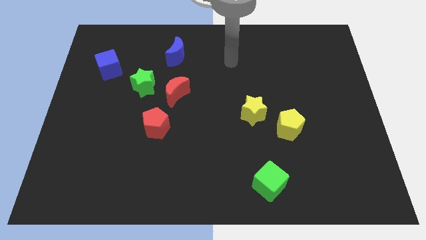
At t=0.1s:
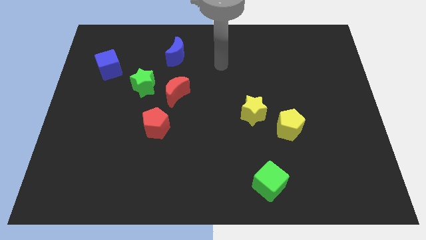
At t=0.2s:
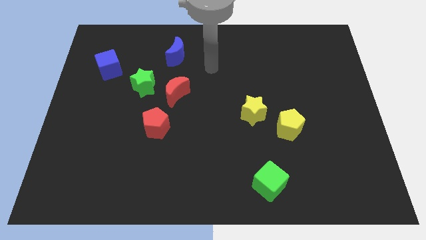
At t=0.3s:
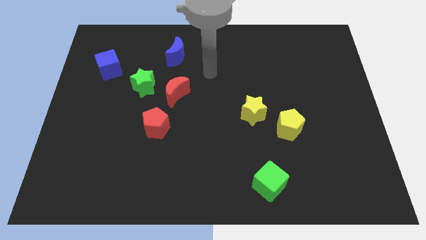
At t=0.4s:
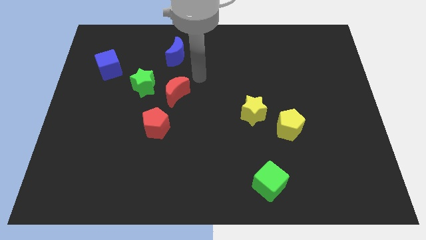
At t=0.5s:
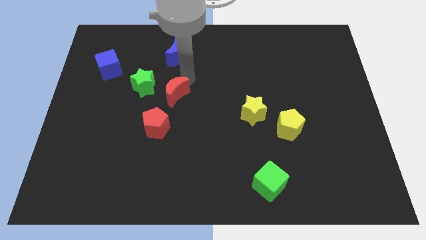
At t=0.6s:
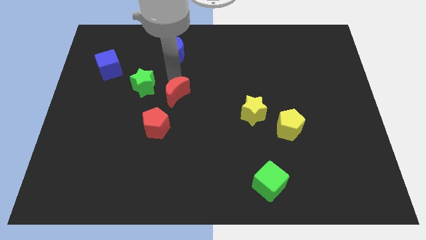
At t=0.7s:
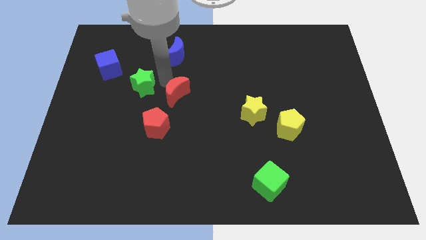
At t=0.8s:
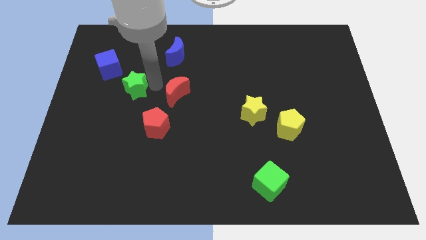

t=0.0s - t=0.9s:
pull the red moon apart from the green star

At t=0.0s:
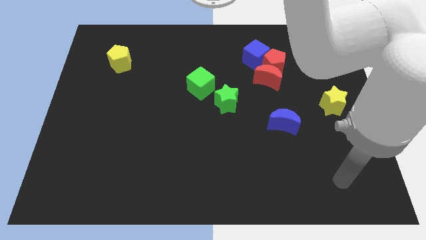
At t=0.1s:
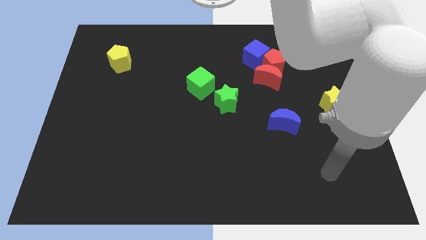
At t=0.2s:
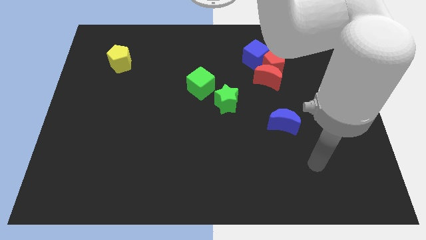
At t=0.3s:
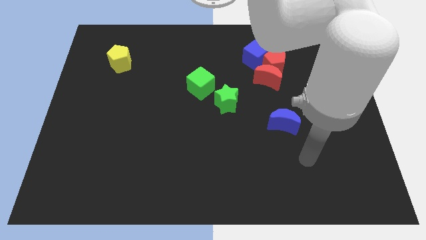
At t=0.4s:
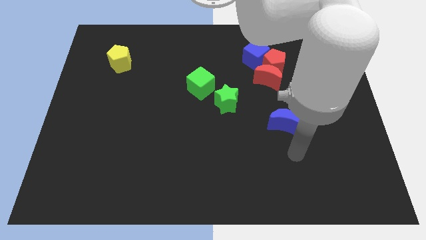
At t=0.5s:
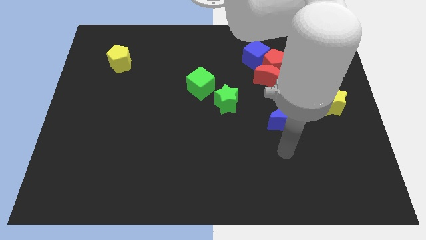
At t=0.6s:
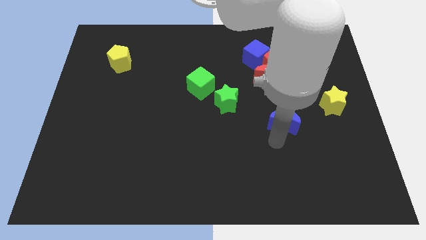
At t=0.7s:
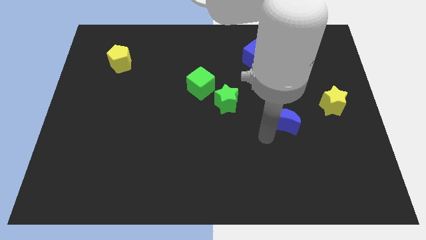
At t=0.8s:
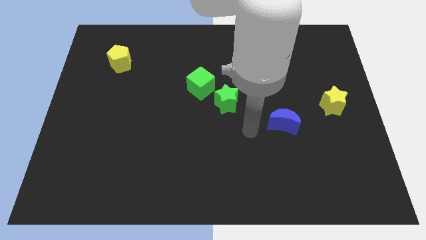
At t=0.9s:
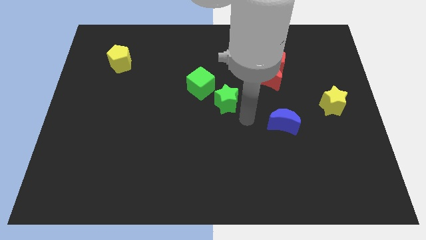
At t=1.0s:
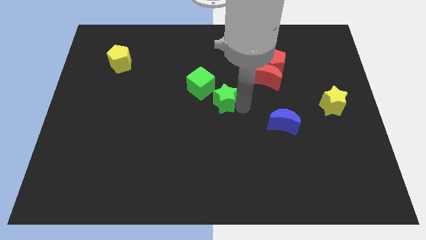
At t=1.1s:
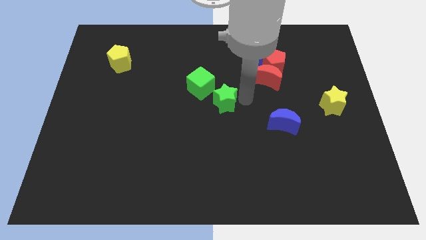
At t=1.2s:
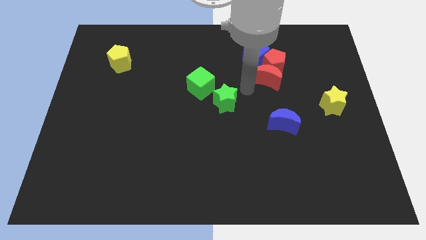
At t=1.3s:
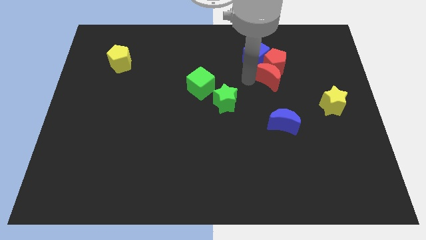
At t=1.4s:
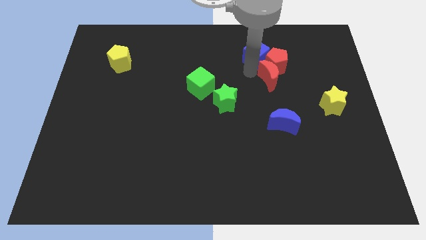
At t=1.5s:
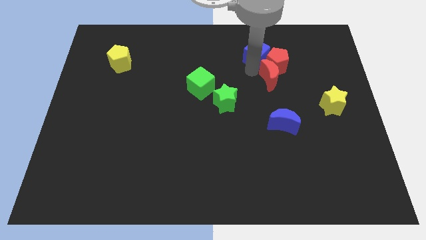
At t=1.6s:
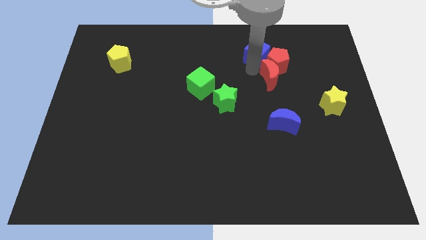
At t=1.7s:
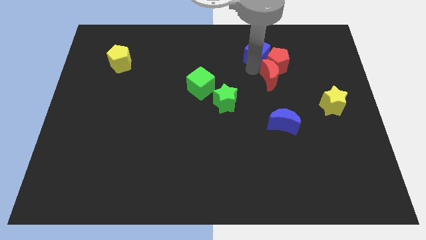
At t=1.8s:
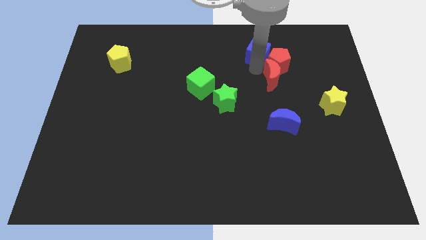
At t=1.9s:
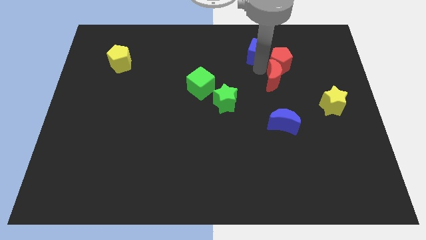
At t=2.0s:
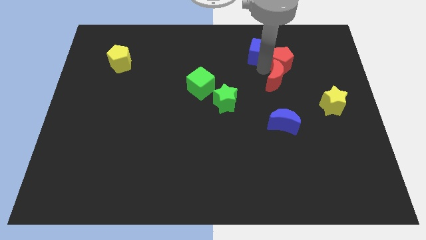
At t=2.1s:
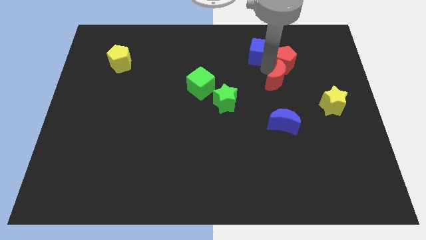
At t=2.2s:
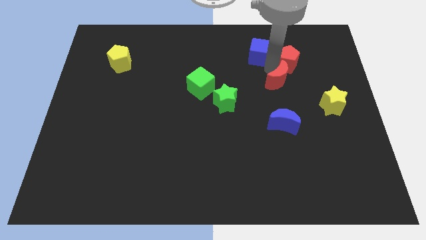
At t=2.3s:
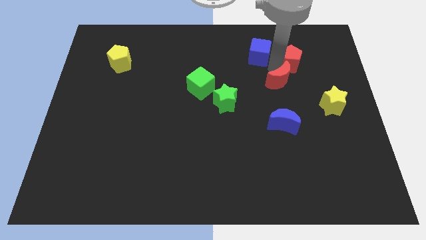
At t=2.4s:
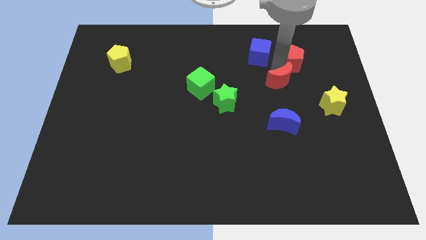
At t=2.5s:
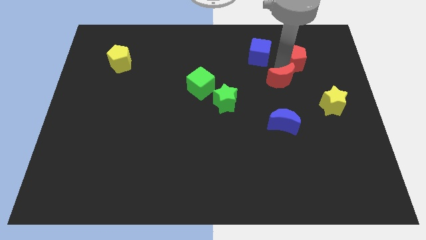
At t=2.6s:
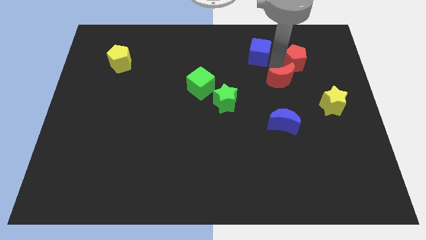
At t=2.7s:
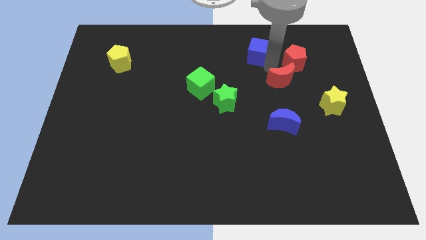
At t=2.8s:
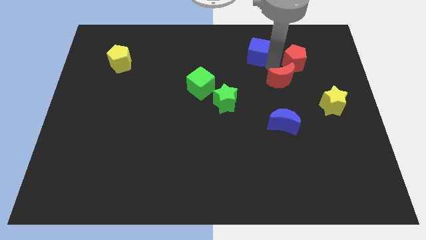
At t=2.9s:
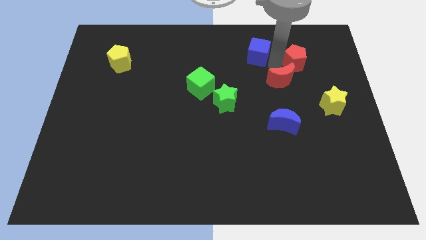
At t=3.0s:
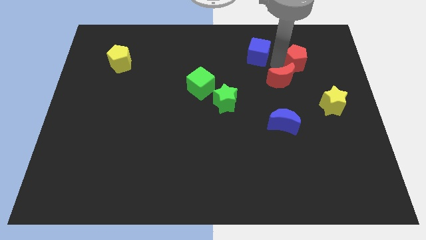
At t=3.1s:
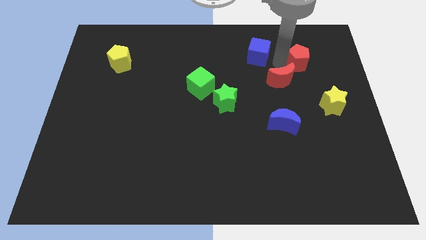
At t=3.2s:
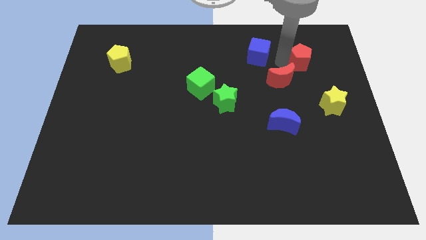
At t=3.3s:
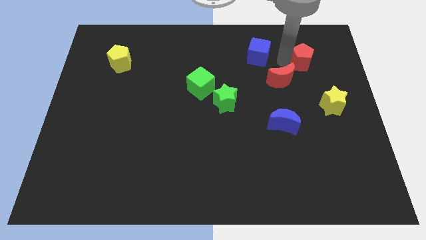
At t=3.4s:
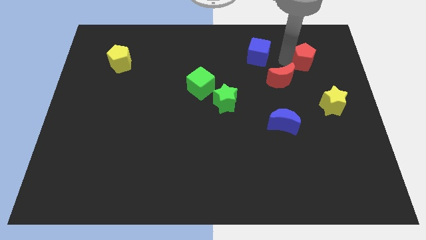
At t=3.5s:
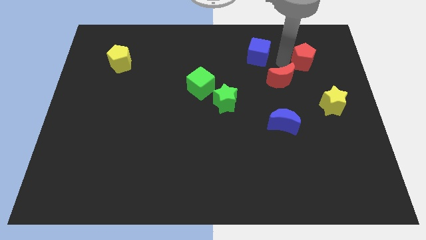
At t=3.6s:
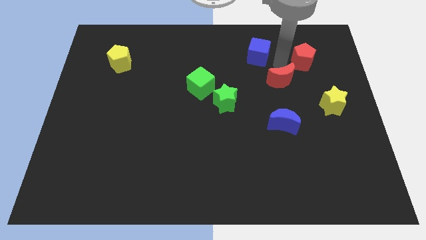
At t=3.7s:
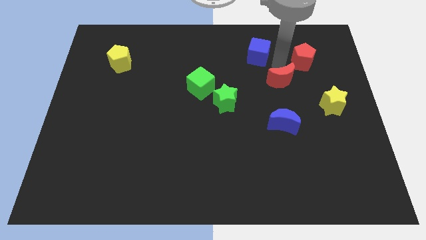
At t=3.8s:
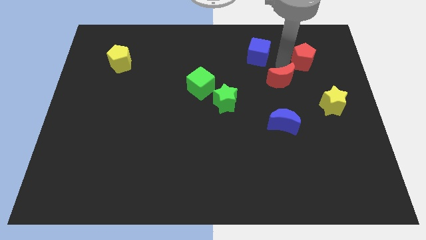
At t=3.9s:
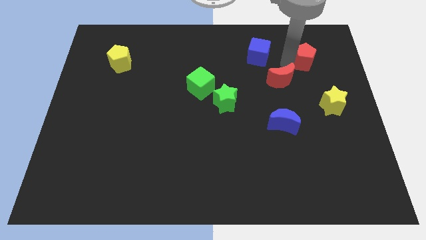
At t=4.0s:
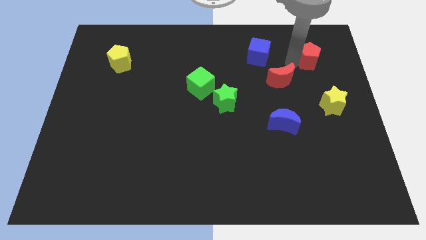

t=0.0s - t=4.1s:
separate the red pentagon from the red moon and blue cube

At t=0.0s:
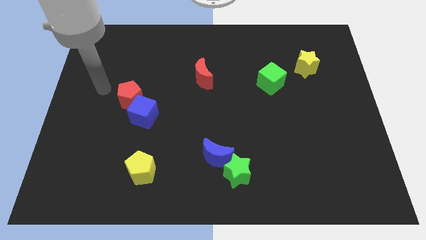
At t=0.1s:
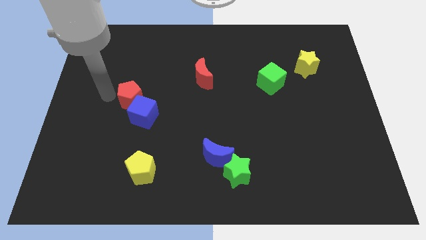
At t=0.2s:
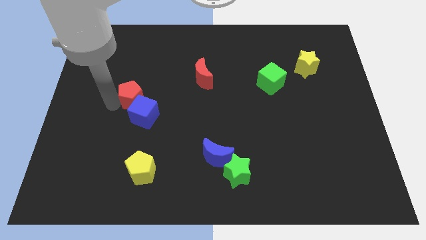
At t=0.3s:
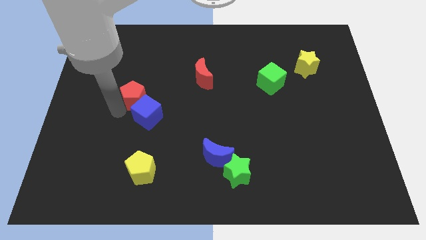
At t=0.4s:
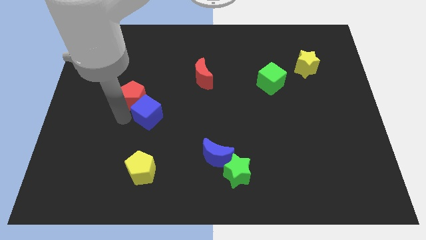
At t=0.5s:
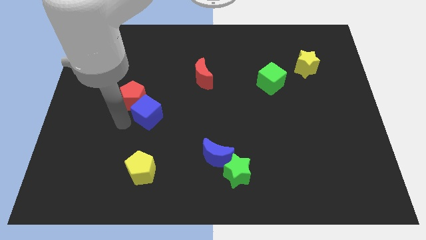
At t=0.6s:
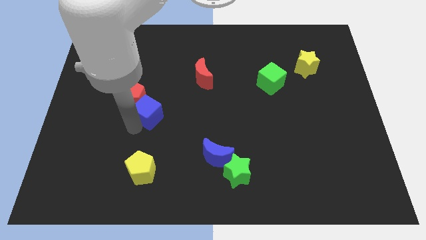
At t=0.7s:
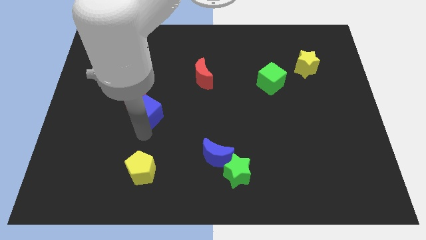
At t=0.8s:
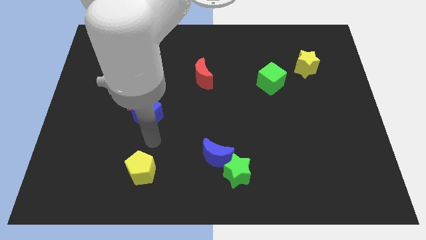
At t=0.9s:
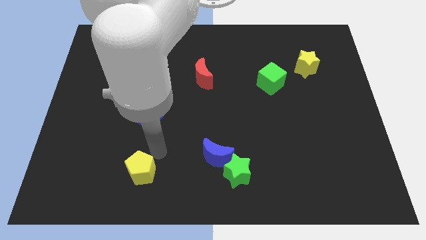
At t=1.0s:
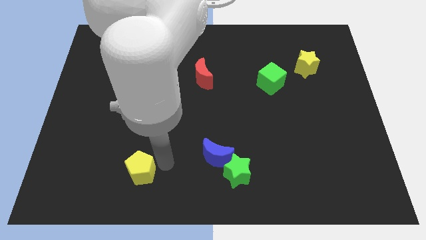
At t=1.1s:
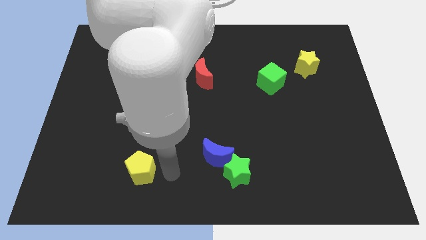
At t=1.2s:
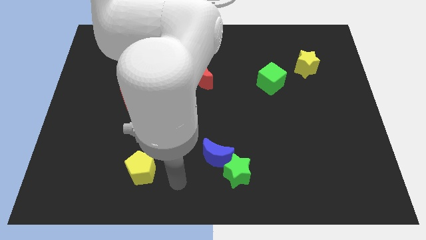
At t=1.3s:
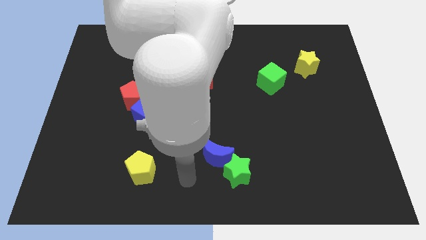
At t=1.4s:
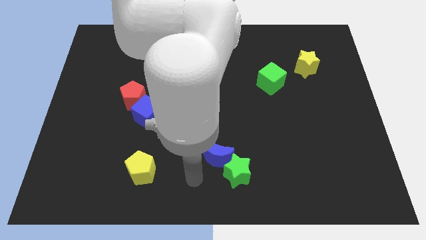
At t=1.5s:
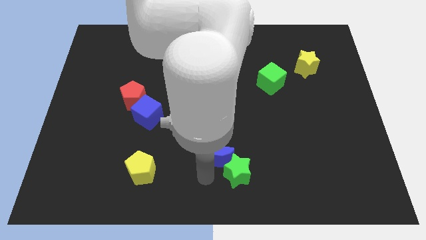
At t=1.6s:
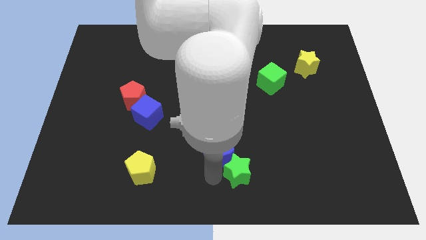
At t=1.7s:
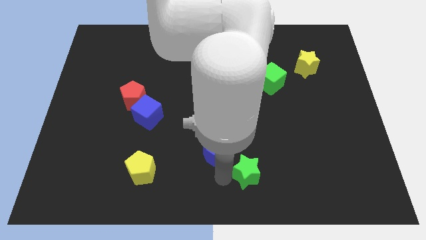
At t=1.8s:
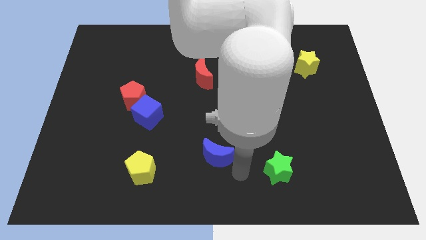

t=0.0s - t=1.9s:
separate the blue moon from the green star

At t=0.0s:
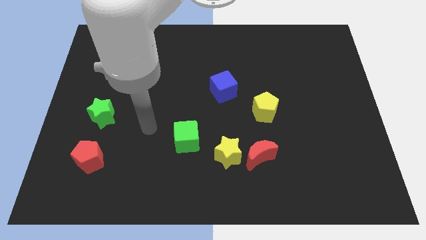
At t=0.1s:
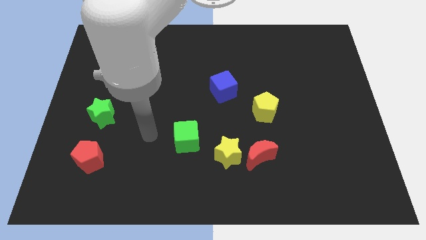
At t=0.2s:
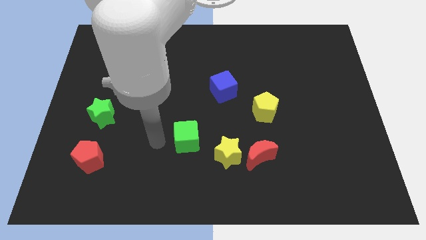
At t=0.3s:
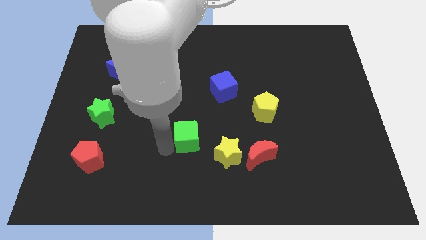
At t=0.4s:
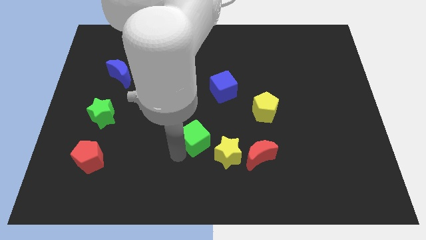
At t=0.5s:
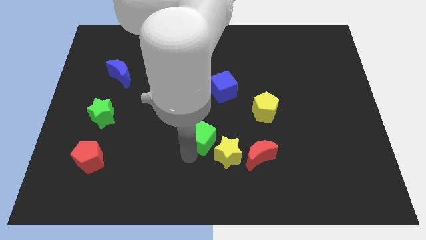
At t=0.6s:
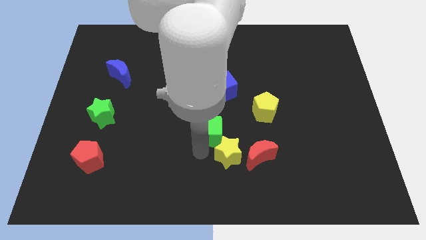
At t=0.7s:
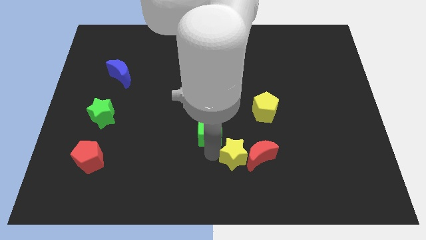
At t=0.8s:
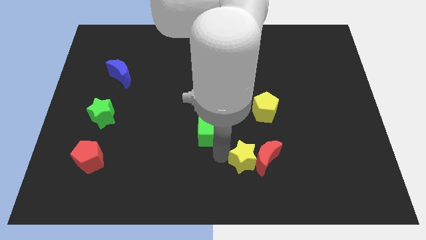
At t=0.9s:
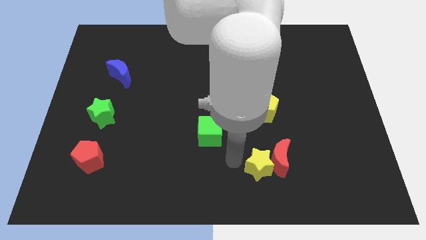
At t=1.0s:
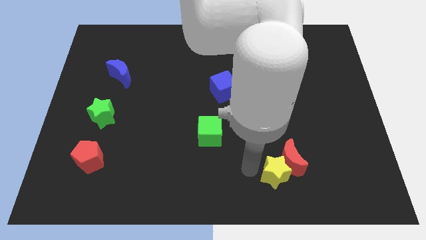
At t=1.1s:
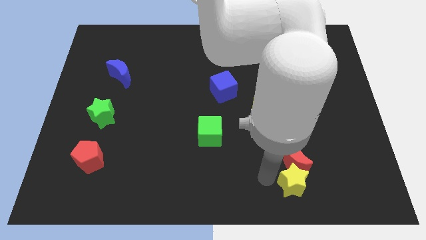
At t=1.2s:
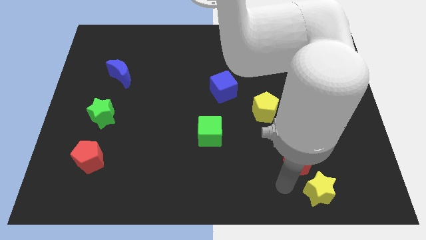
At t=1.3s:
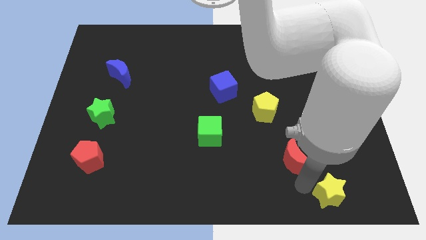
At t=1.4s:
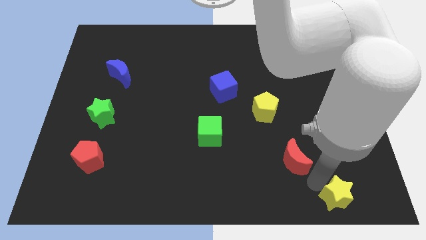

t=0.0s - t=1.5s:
move the red moon away from the yellow star

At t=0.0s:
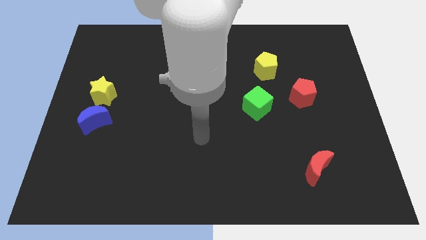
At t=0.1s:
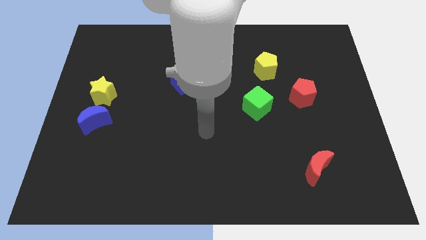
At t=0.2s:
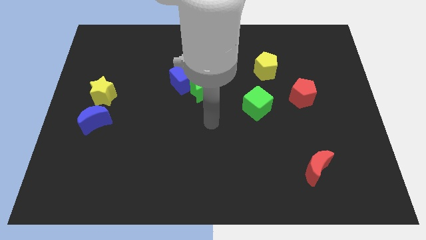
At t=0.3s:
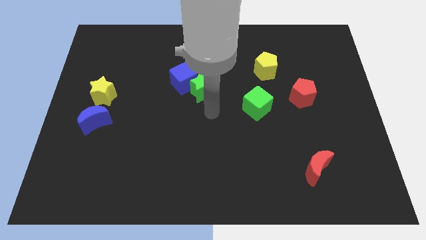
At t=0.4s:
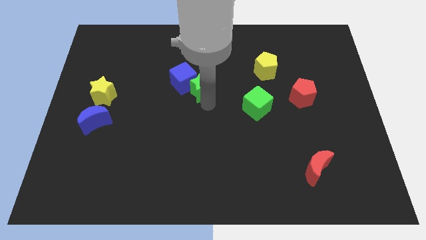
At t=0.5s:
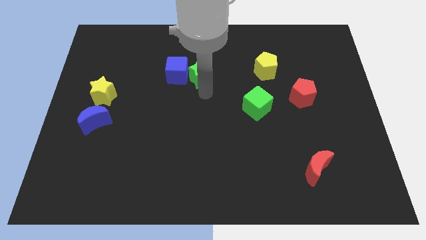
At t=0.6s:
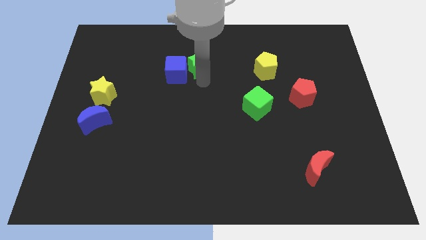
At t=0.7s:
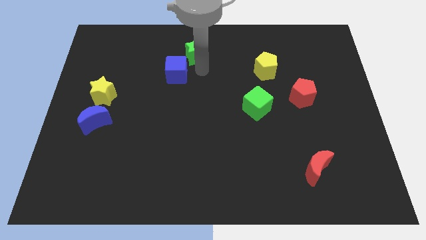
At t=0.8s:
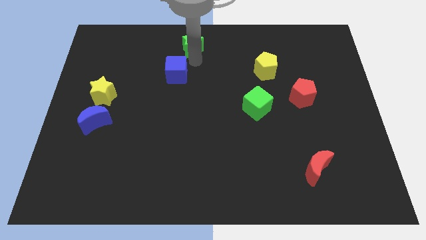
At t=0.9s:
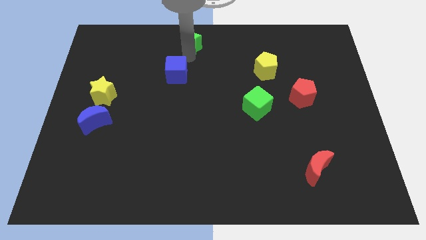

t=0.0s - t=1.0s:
pull the blue cube apart from the green star
